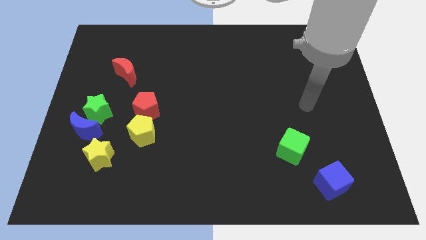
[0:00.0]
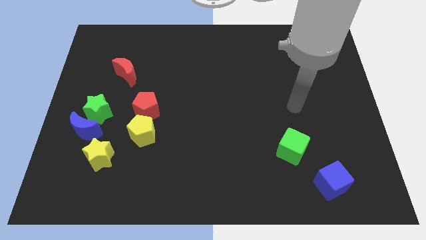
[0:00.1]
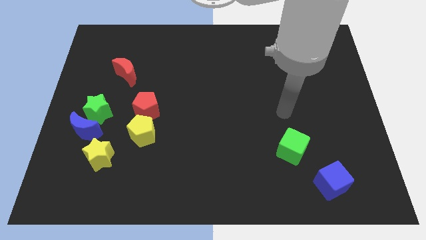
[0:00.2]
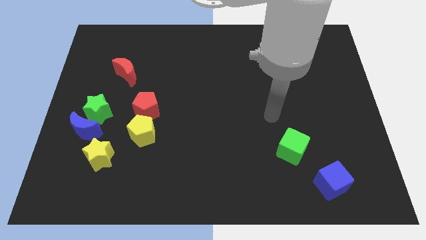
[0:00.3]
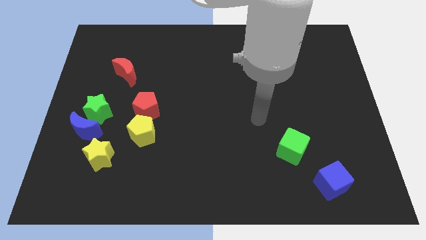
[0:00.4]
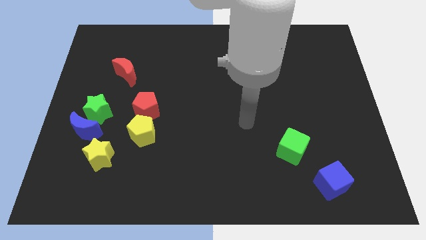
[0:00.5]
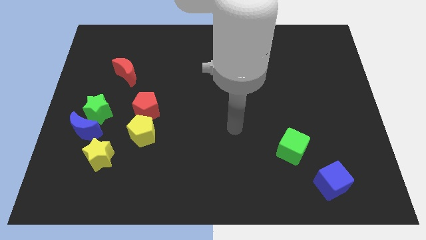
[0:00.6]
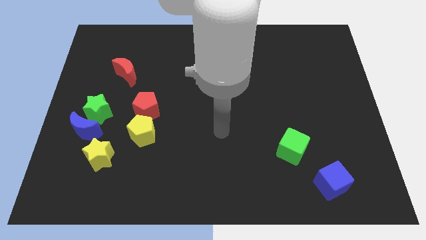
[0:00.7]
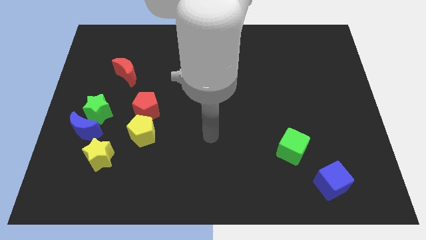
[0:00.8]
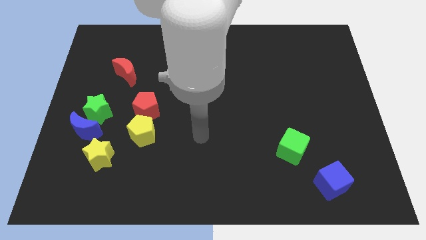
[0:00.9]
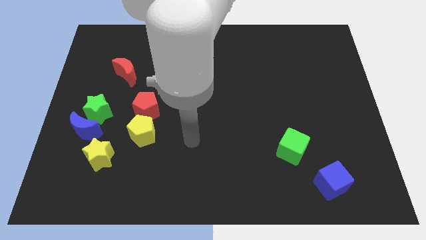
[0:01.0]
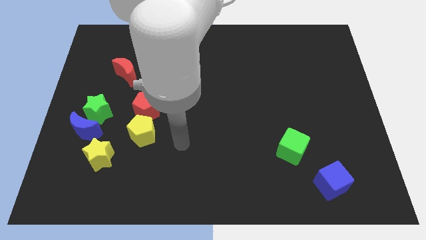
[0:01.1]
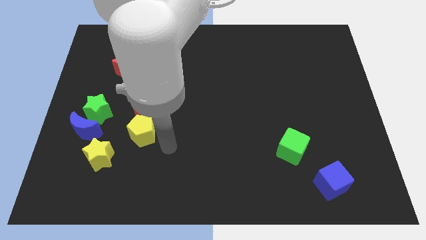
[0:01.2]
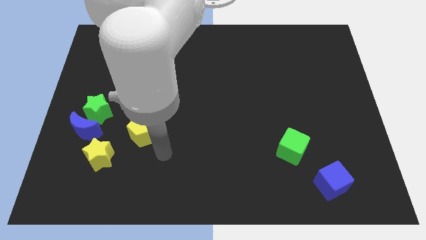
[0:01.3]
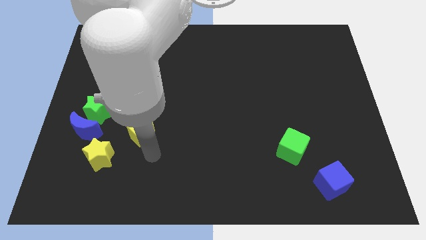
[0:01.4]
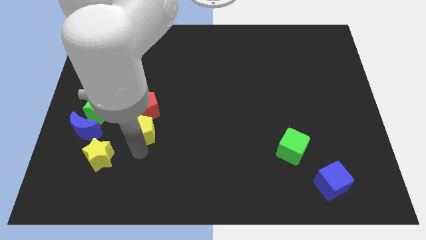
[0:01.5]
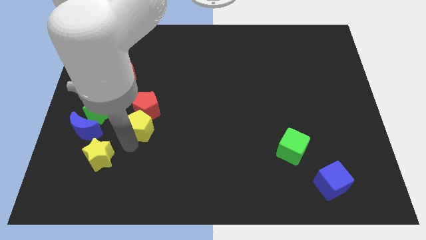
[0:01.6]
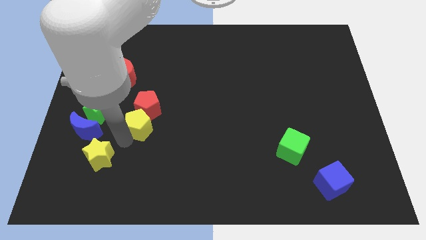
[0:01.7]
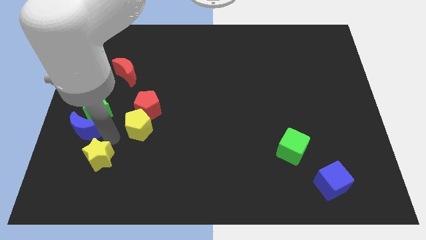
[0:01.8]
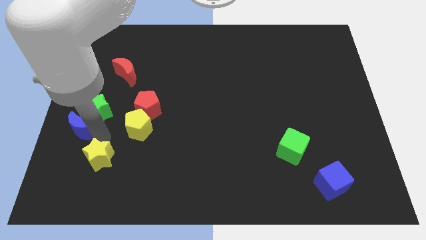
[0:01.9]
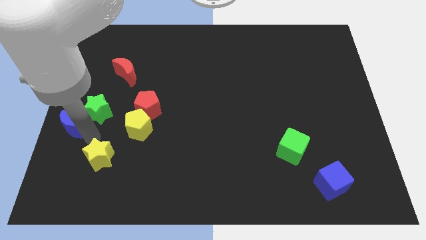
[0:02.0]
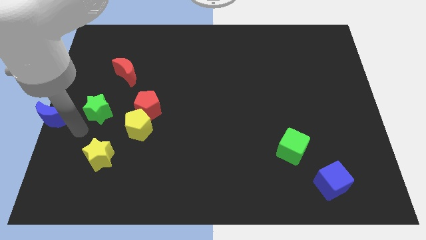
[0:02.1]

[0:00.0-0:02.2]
move the green star away from the blue moon

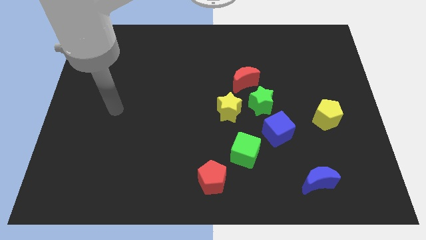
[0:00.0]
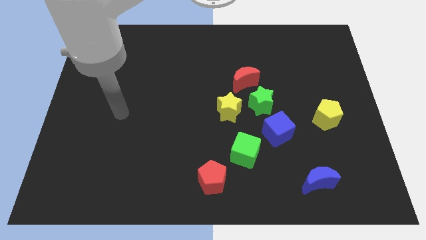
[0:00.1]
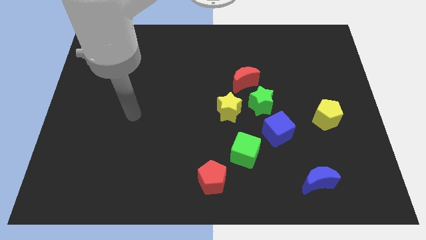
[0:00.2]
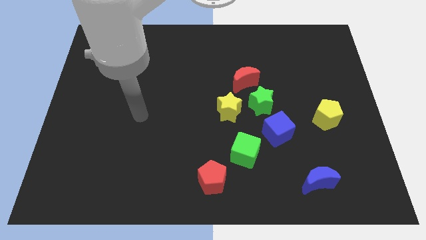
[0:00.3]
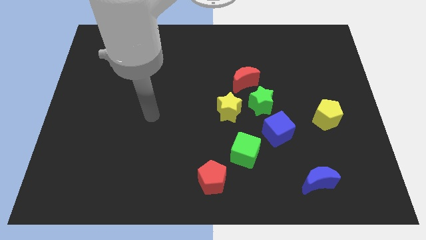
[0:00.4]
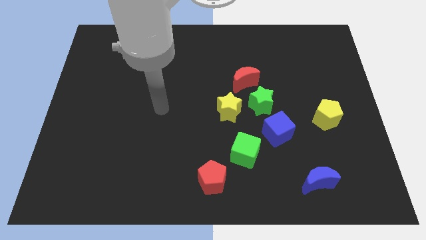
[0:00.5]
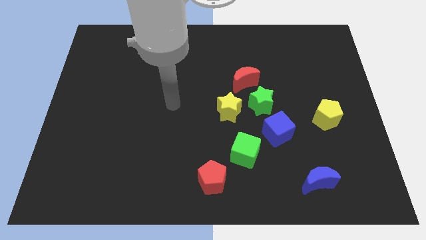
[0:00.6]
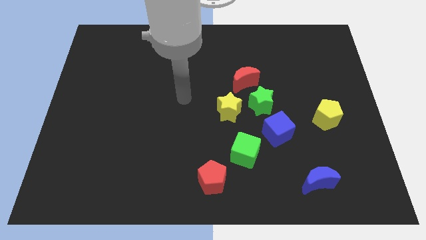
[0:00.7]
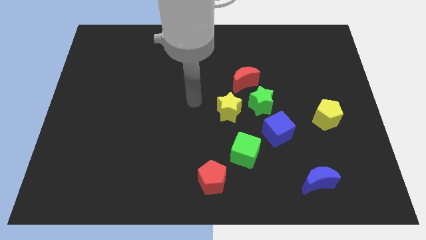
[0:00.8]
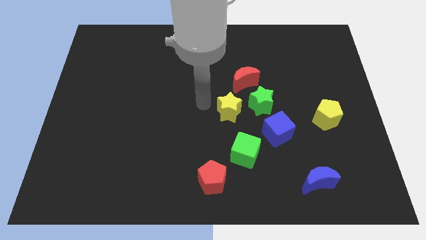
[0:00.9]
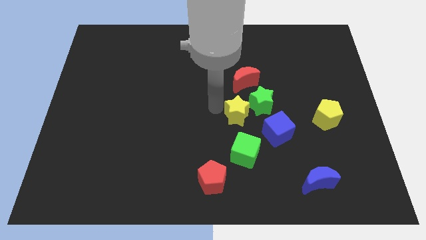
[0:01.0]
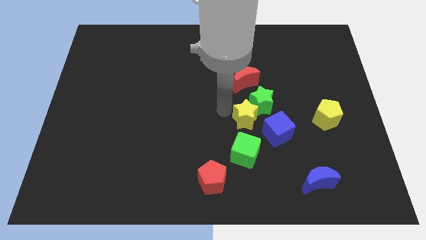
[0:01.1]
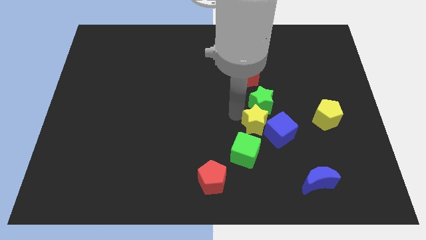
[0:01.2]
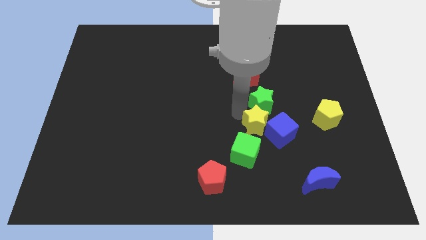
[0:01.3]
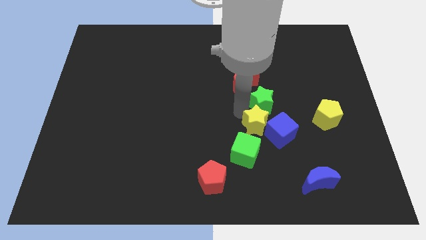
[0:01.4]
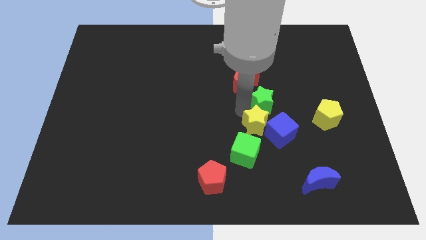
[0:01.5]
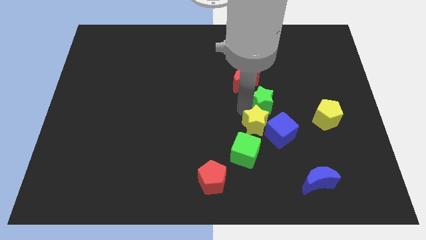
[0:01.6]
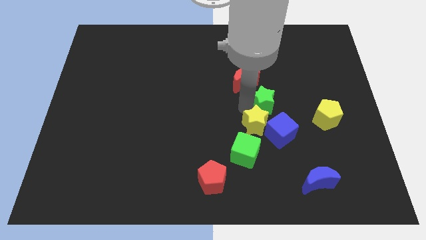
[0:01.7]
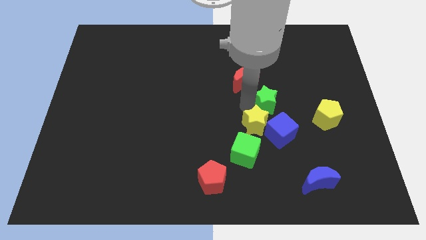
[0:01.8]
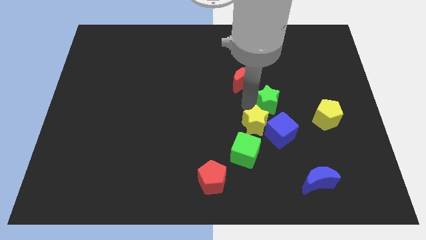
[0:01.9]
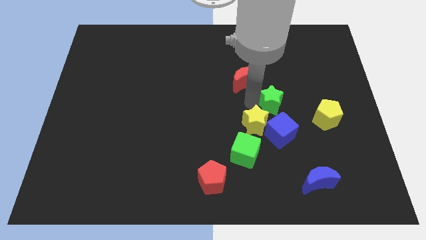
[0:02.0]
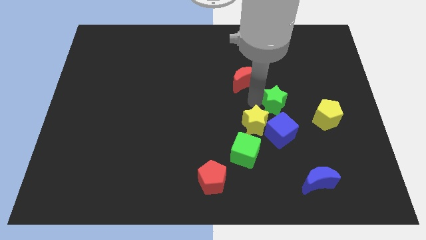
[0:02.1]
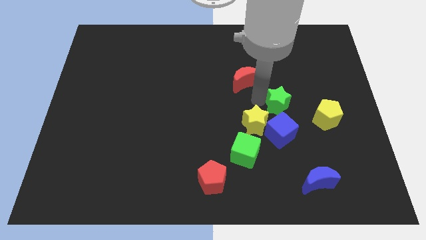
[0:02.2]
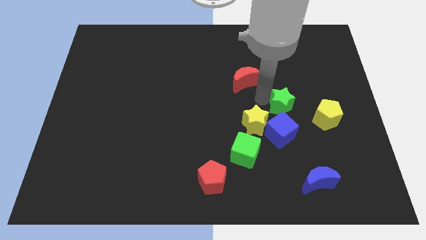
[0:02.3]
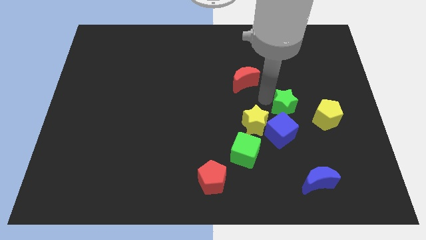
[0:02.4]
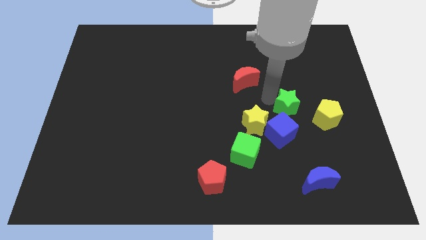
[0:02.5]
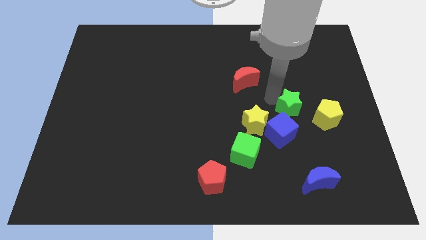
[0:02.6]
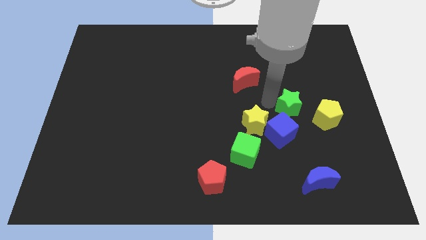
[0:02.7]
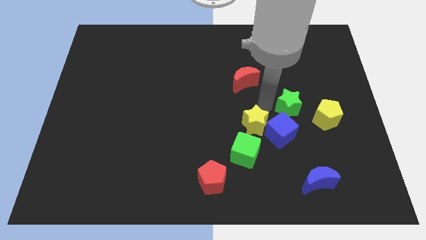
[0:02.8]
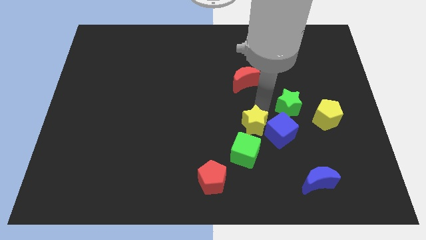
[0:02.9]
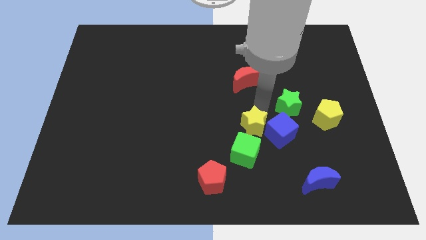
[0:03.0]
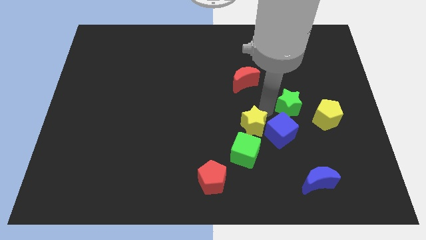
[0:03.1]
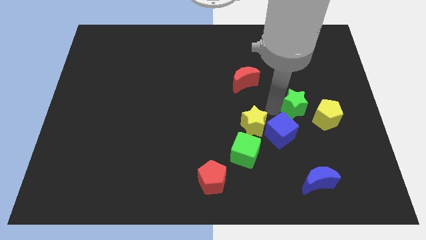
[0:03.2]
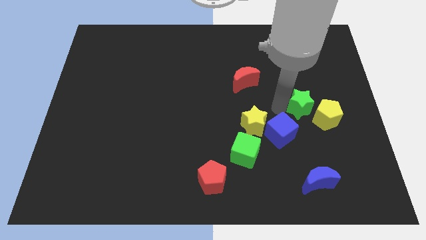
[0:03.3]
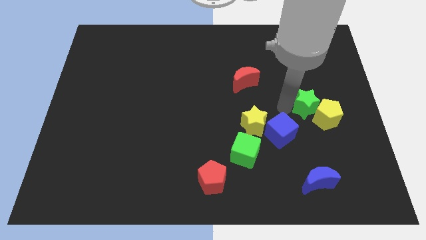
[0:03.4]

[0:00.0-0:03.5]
move the green star away from the group of blocks

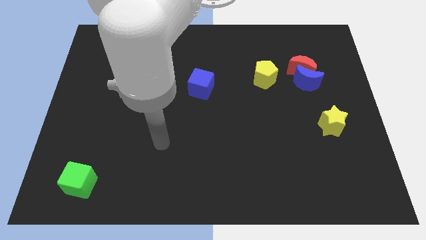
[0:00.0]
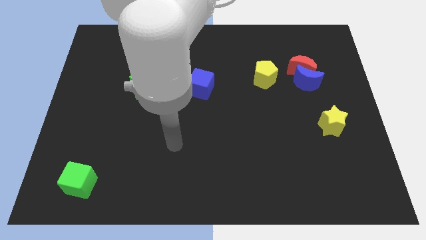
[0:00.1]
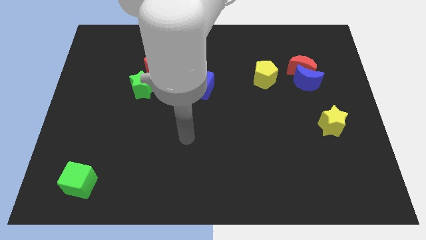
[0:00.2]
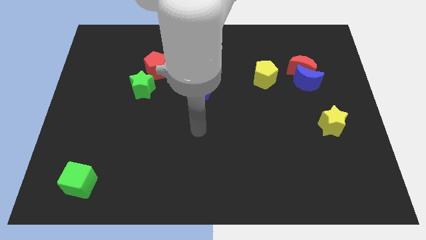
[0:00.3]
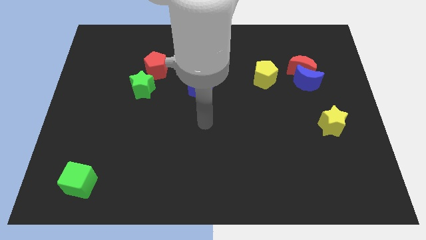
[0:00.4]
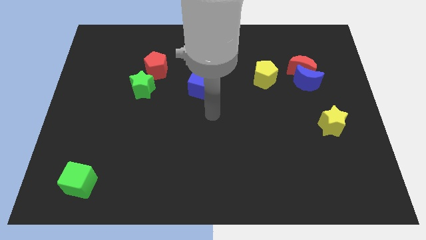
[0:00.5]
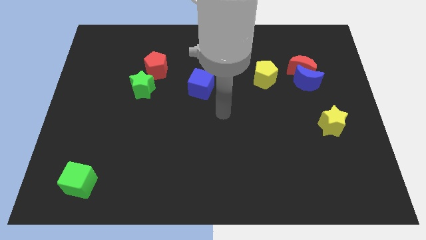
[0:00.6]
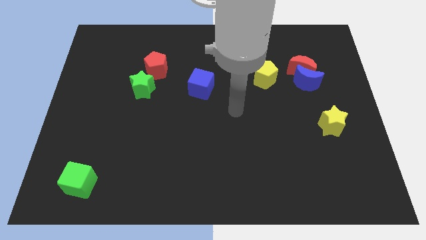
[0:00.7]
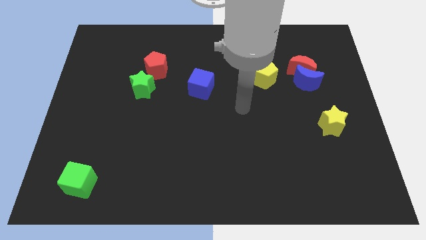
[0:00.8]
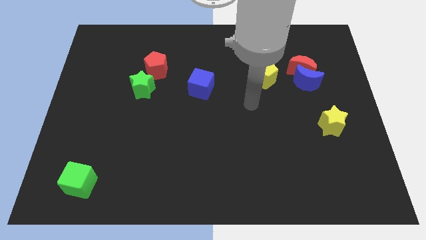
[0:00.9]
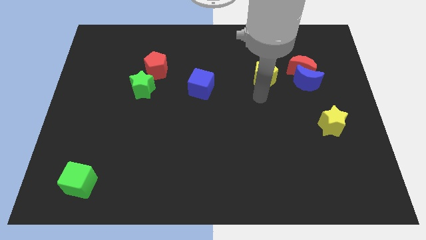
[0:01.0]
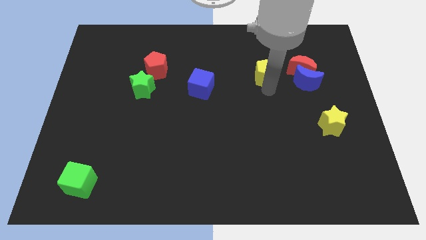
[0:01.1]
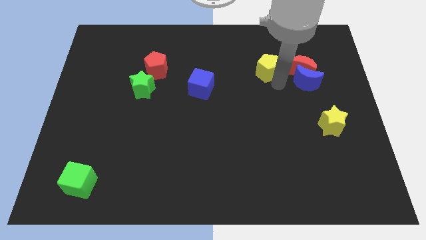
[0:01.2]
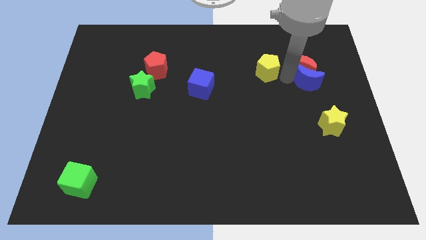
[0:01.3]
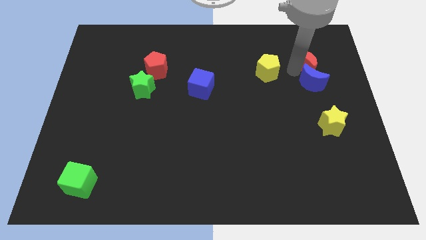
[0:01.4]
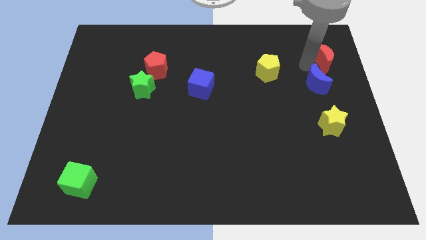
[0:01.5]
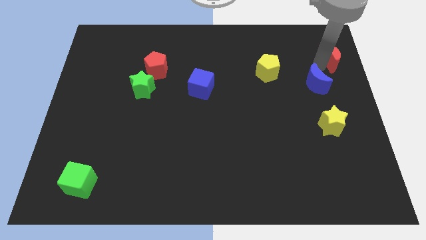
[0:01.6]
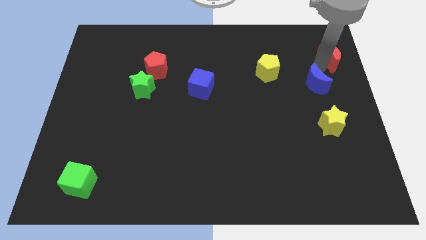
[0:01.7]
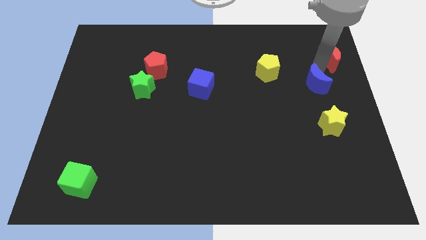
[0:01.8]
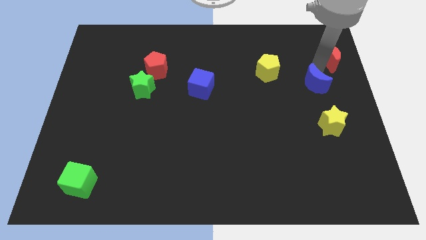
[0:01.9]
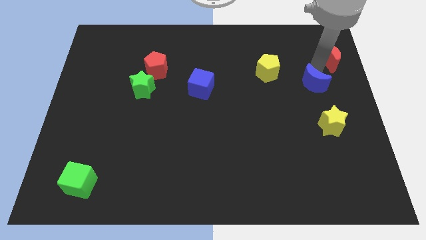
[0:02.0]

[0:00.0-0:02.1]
move the blue moon away from the red moon

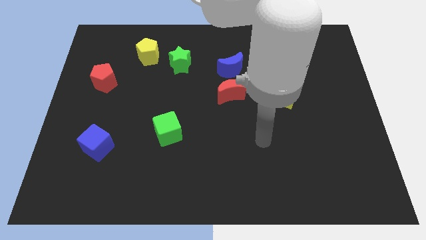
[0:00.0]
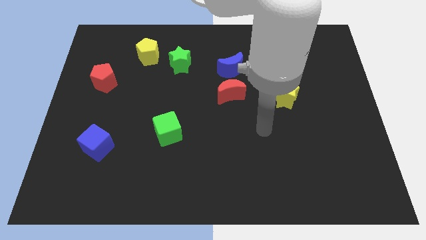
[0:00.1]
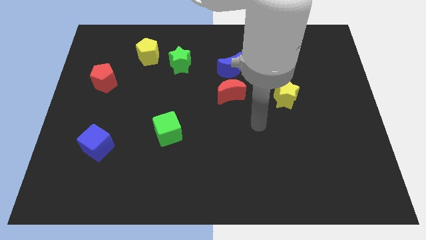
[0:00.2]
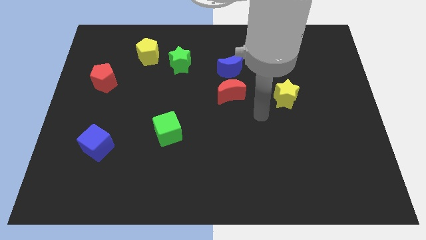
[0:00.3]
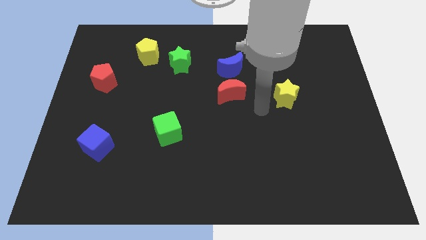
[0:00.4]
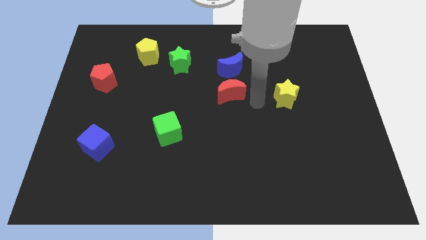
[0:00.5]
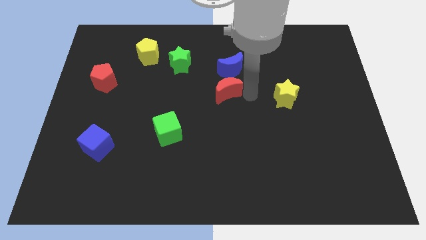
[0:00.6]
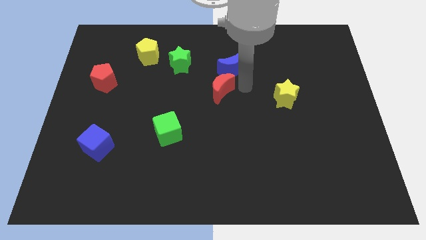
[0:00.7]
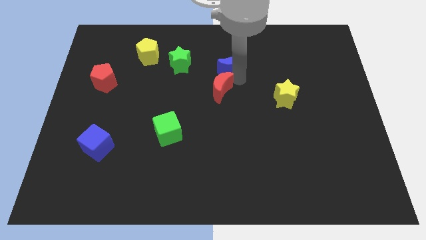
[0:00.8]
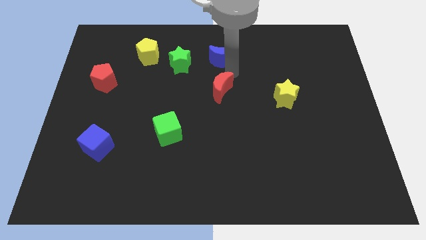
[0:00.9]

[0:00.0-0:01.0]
move the red moon away from the blue moon

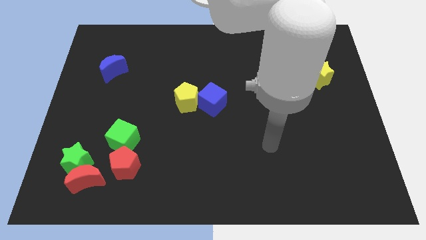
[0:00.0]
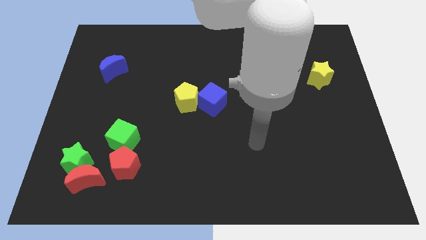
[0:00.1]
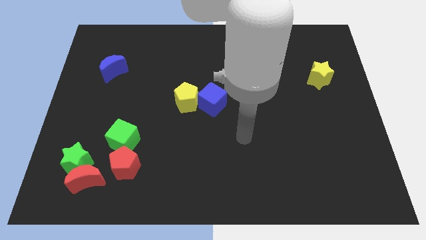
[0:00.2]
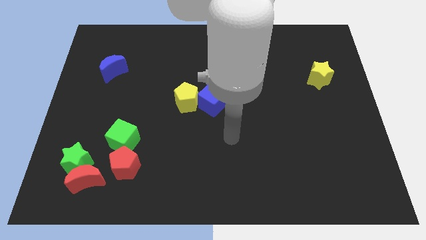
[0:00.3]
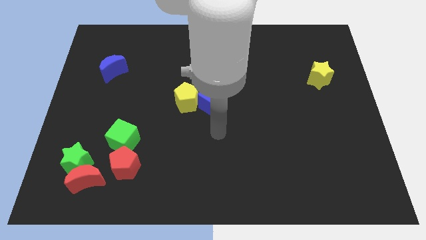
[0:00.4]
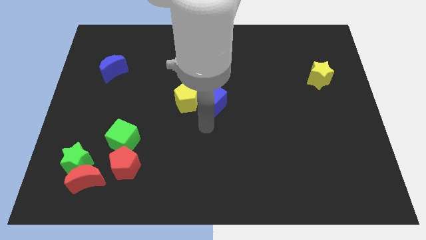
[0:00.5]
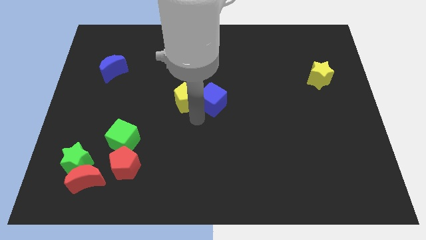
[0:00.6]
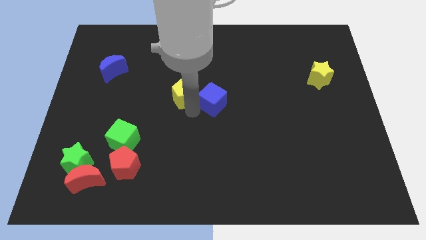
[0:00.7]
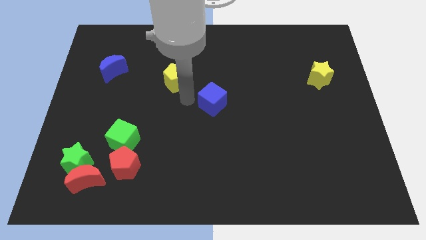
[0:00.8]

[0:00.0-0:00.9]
separate the blue cube from the yellow pentagon
